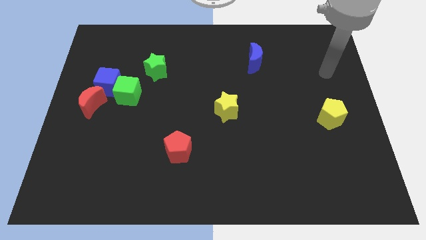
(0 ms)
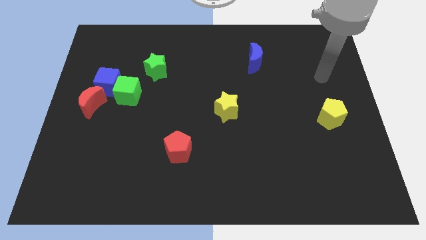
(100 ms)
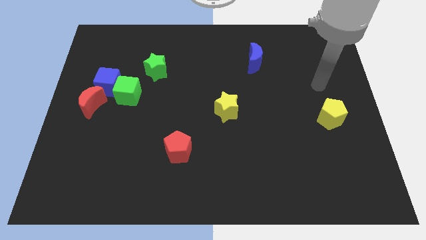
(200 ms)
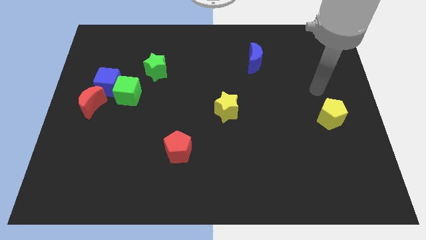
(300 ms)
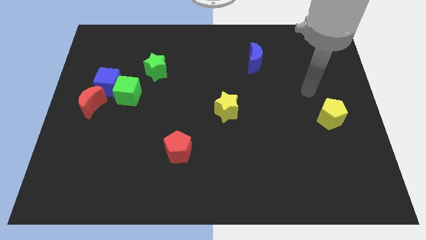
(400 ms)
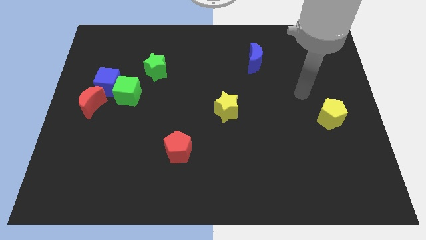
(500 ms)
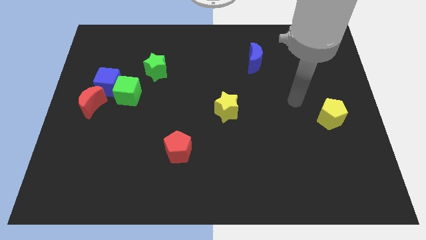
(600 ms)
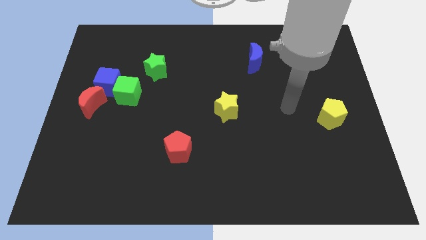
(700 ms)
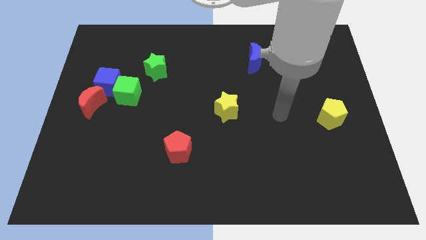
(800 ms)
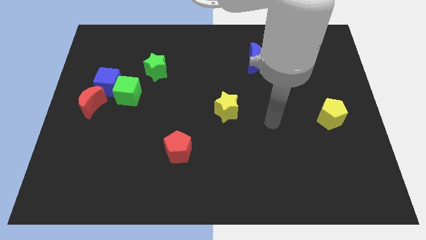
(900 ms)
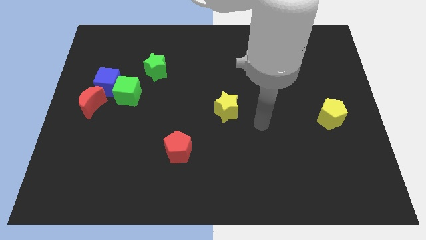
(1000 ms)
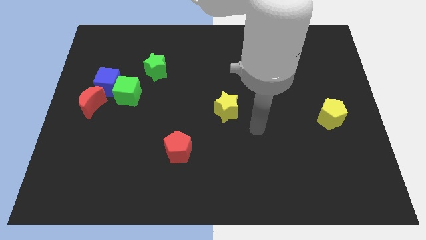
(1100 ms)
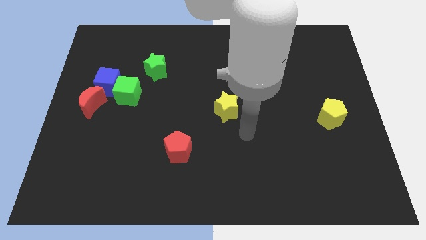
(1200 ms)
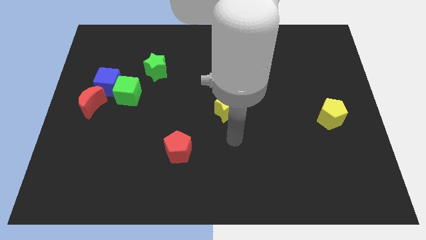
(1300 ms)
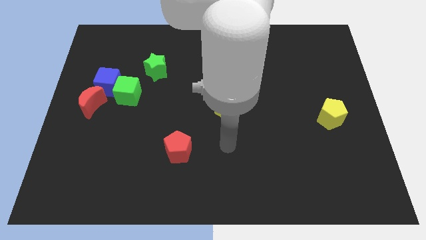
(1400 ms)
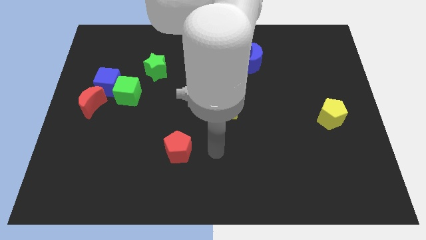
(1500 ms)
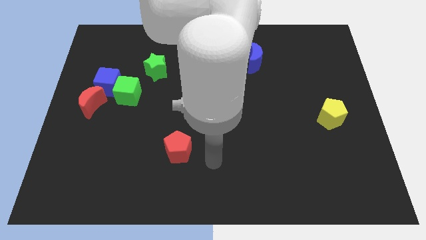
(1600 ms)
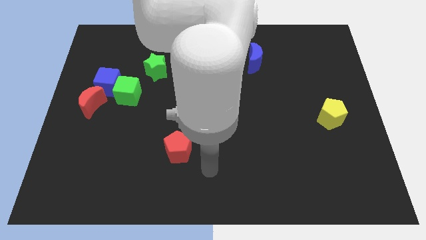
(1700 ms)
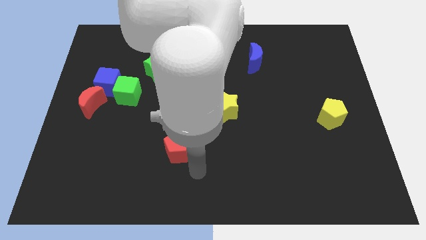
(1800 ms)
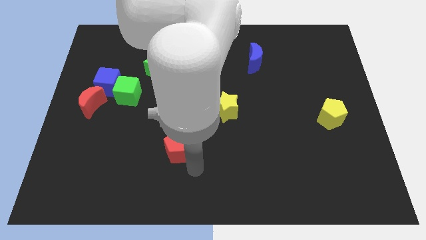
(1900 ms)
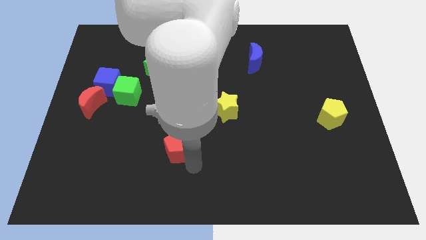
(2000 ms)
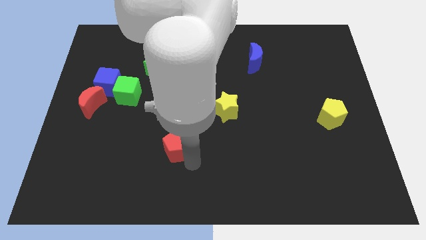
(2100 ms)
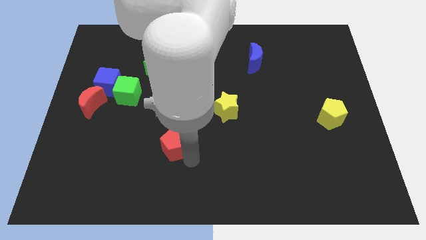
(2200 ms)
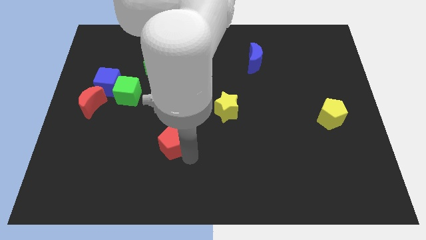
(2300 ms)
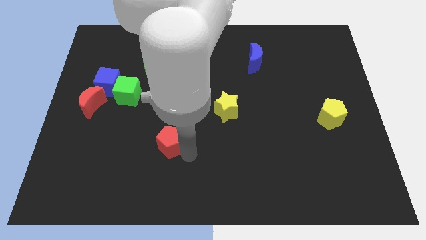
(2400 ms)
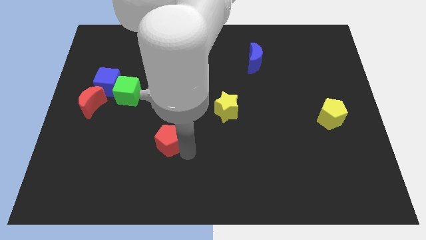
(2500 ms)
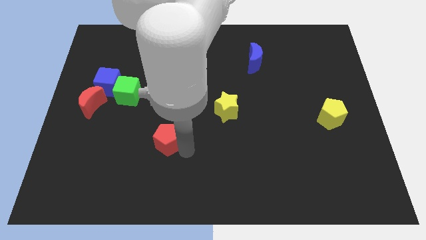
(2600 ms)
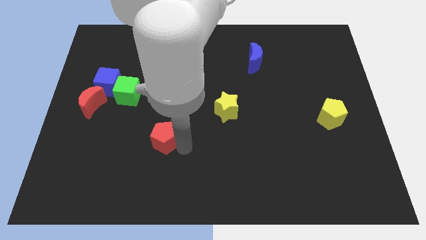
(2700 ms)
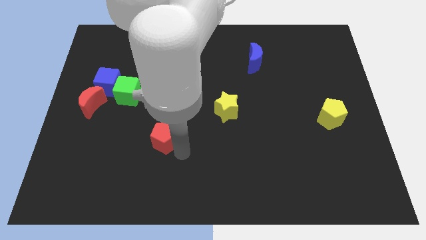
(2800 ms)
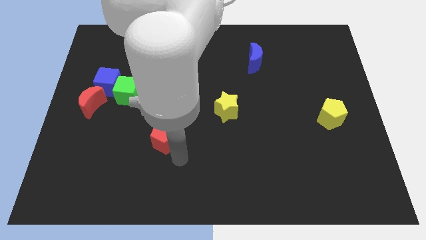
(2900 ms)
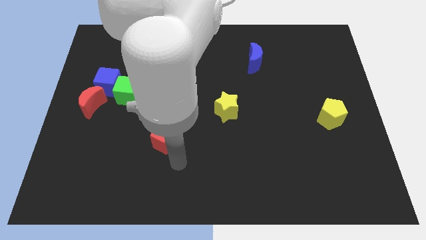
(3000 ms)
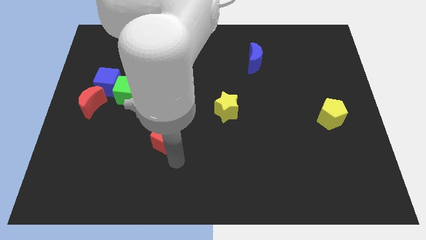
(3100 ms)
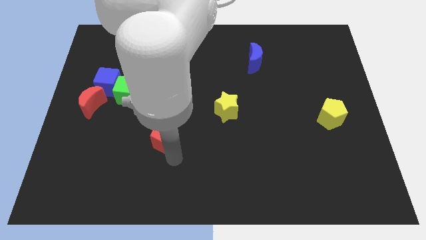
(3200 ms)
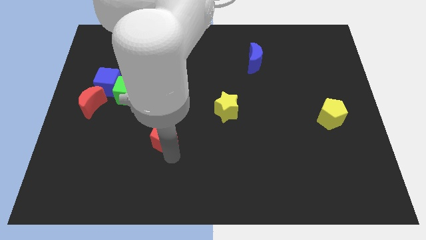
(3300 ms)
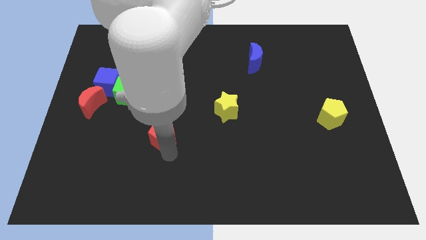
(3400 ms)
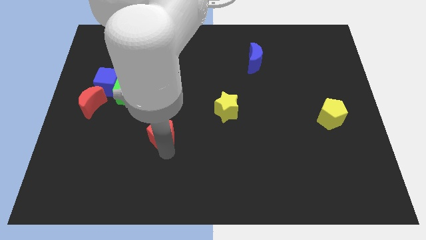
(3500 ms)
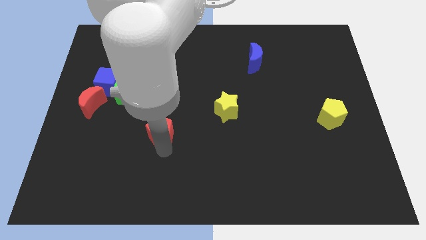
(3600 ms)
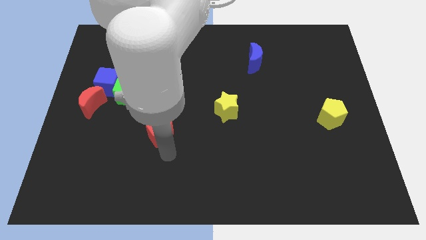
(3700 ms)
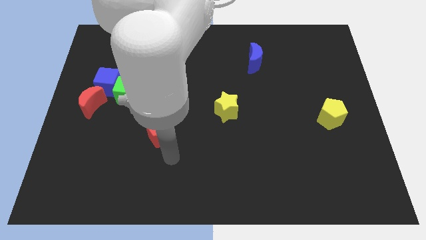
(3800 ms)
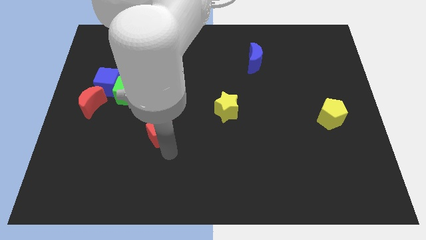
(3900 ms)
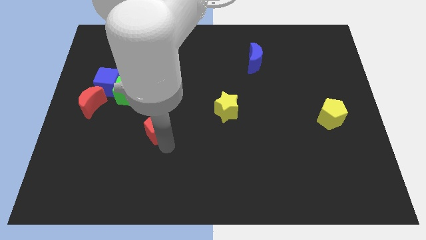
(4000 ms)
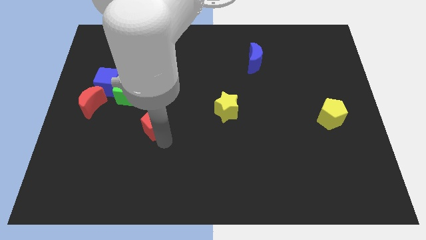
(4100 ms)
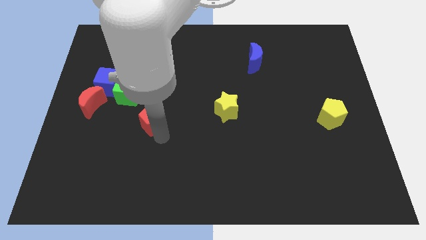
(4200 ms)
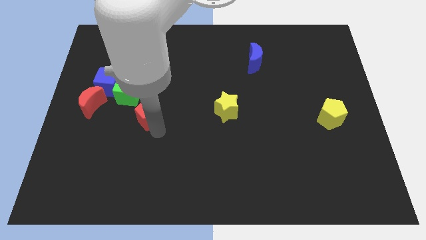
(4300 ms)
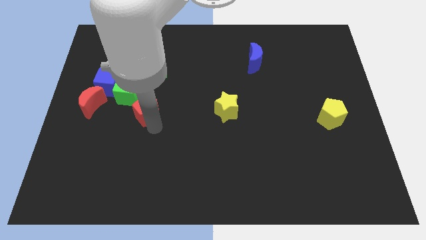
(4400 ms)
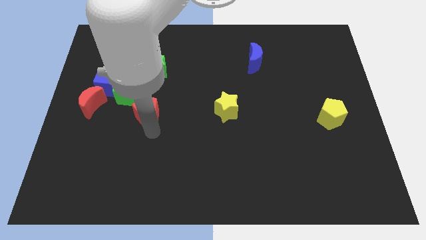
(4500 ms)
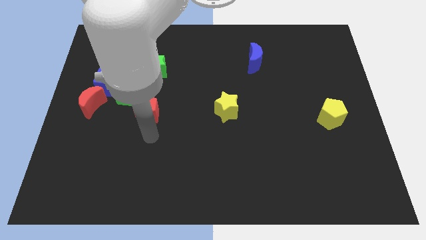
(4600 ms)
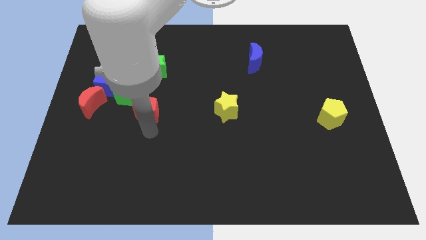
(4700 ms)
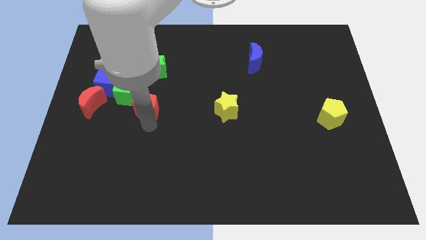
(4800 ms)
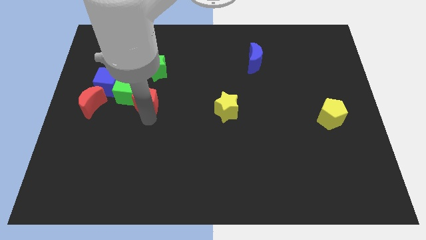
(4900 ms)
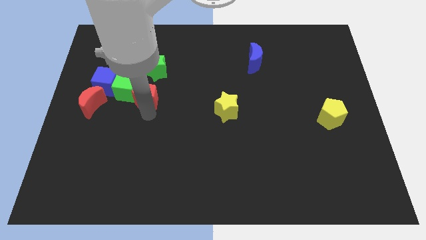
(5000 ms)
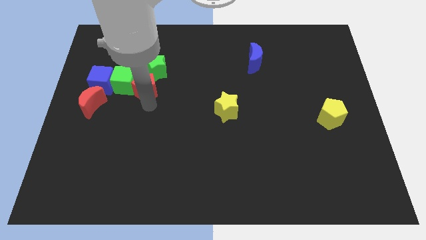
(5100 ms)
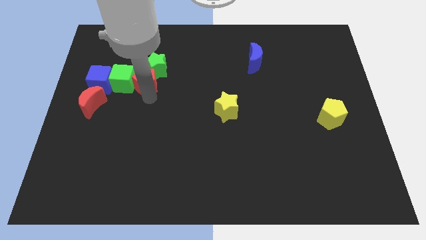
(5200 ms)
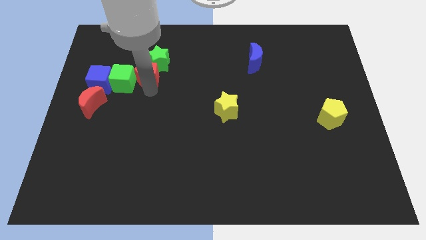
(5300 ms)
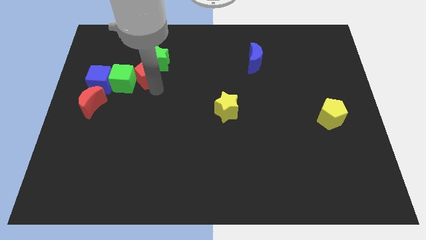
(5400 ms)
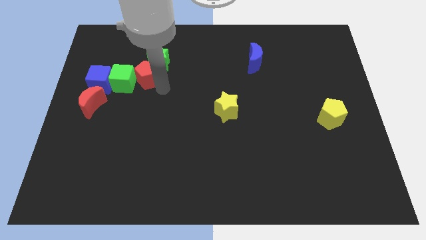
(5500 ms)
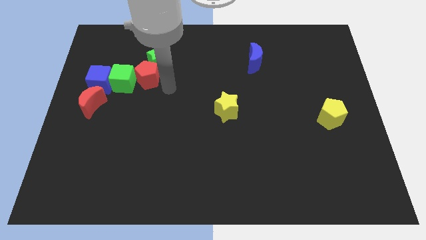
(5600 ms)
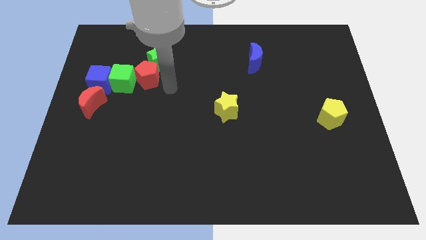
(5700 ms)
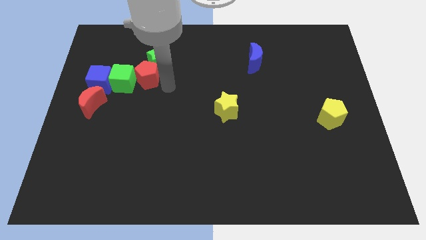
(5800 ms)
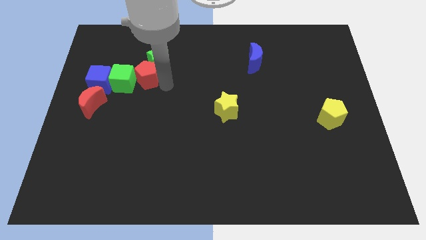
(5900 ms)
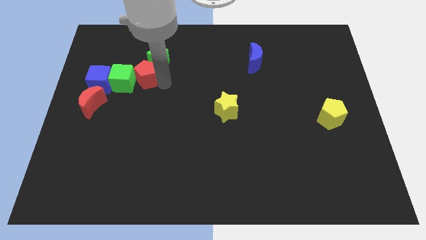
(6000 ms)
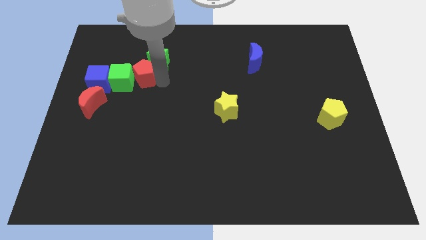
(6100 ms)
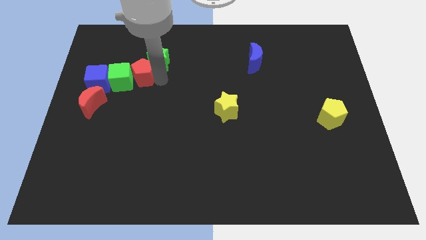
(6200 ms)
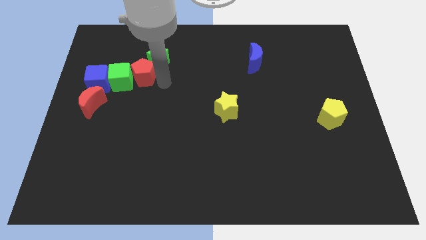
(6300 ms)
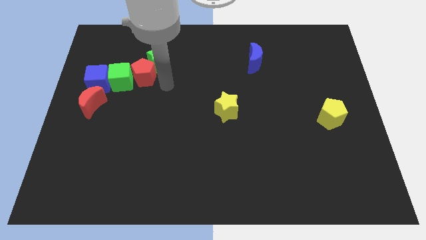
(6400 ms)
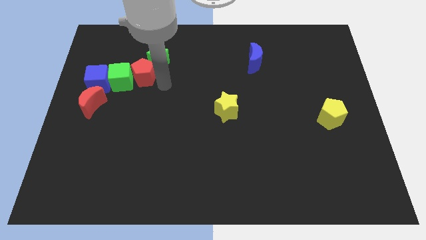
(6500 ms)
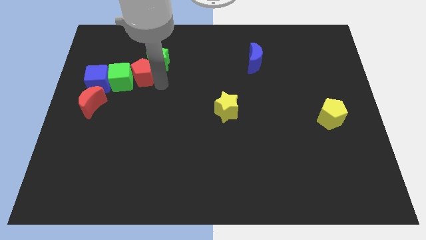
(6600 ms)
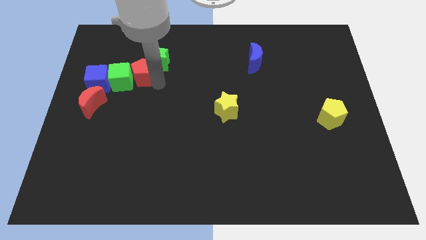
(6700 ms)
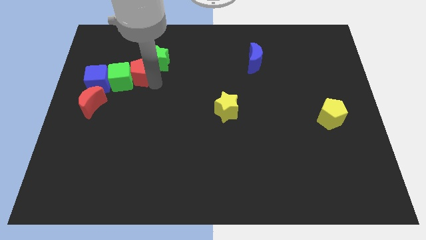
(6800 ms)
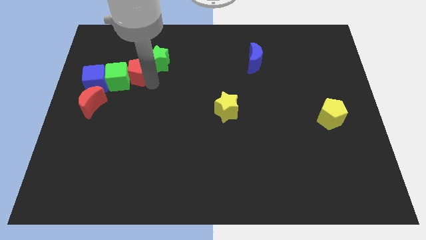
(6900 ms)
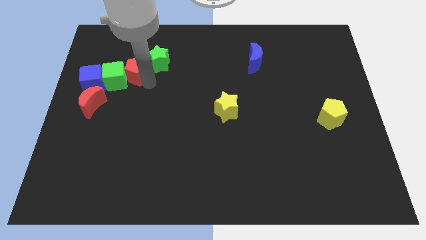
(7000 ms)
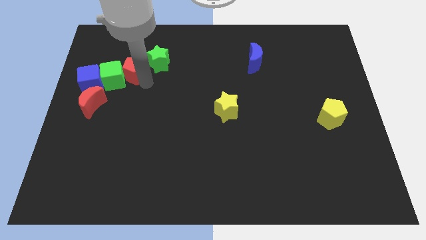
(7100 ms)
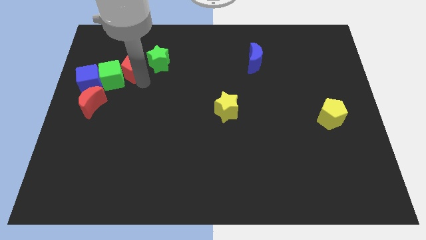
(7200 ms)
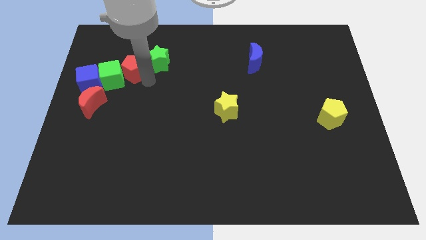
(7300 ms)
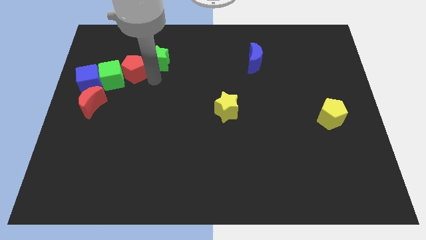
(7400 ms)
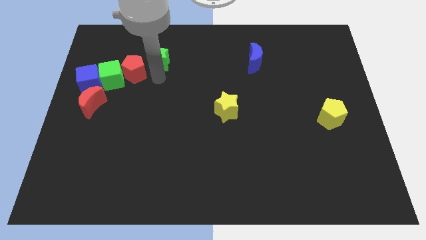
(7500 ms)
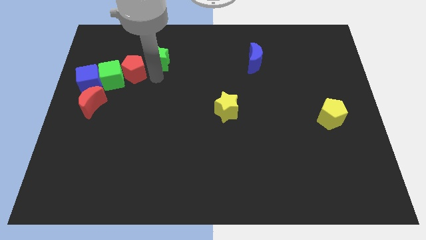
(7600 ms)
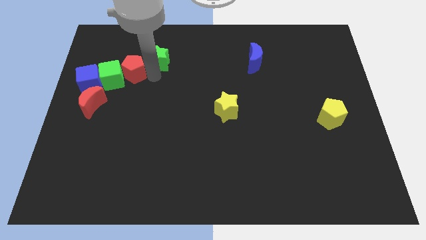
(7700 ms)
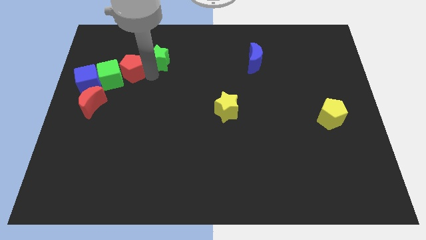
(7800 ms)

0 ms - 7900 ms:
move the red pentagon to the top right of the blue cube
